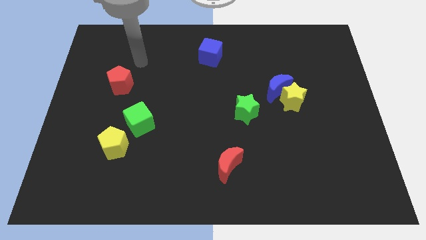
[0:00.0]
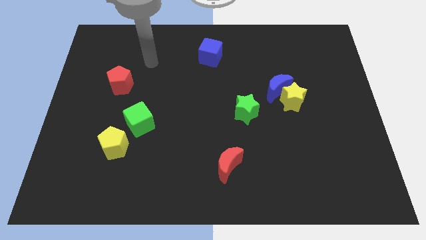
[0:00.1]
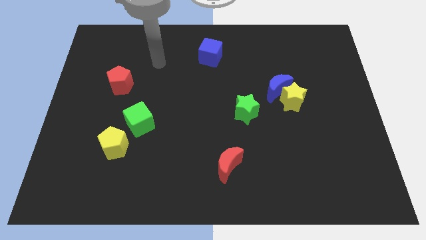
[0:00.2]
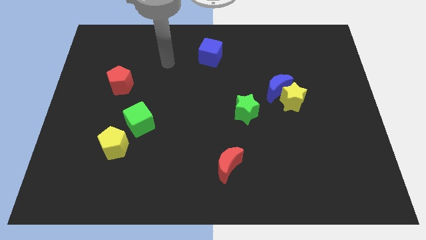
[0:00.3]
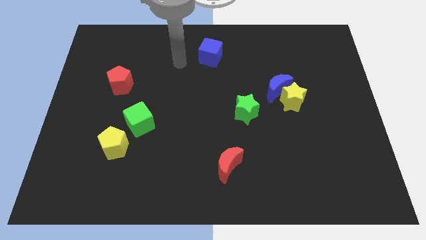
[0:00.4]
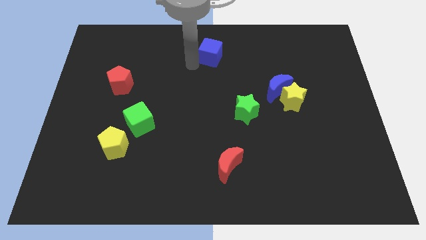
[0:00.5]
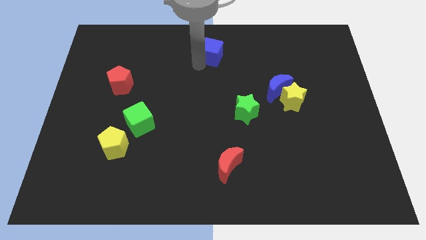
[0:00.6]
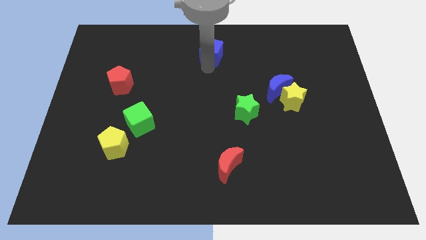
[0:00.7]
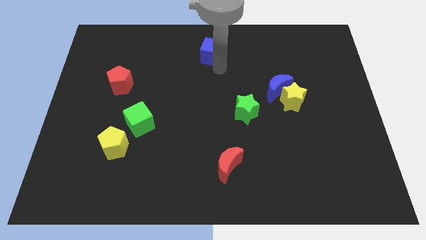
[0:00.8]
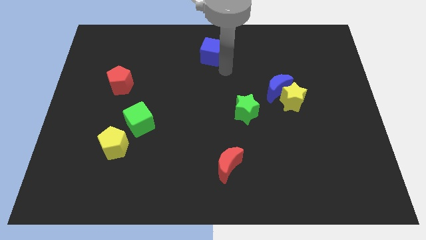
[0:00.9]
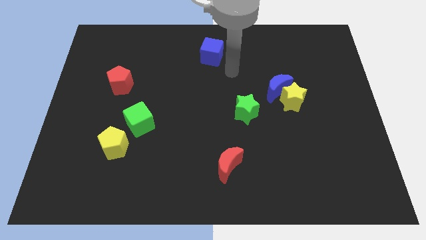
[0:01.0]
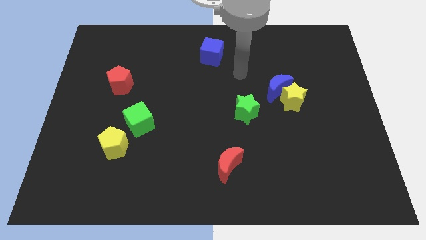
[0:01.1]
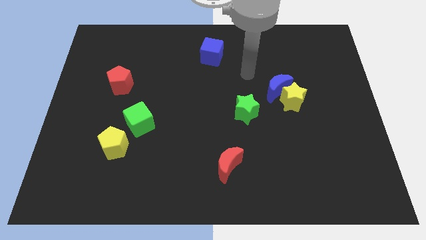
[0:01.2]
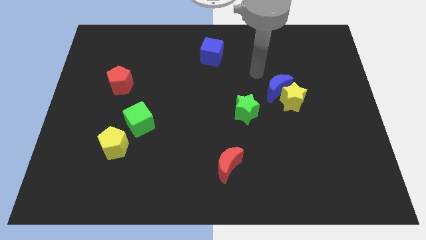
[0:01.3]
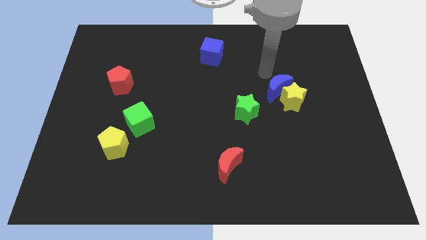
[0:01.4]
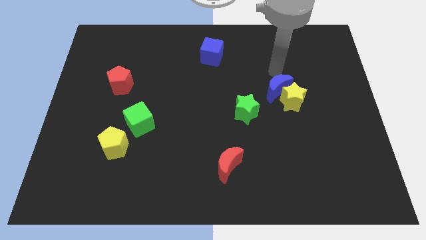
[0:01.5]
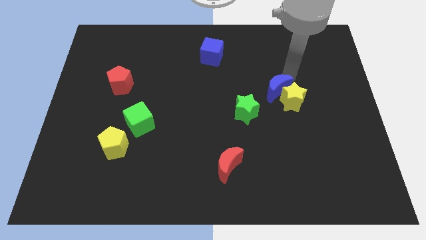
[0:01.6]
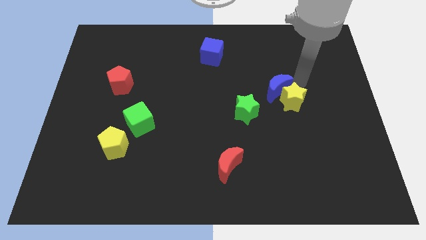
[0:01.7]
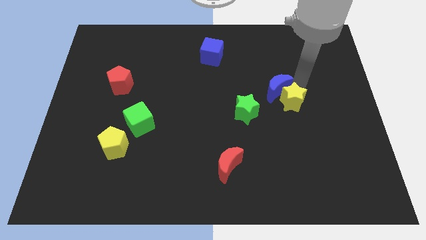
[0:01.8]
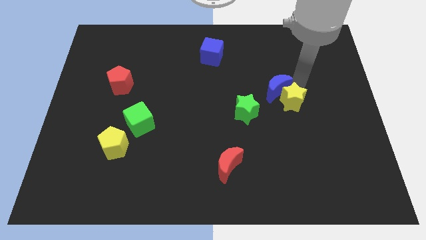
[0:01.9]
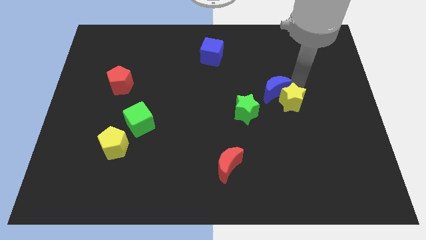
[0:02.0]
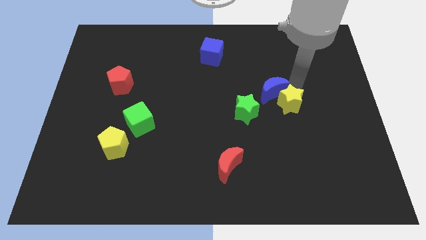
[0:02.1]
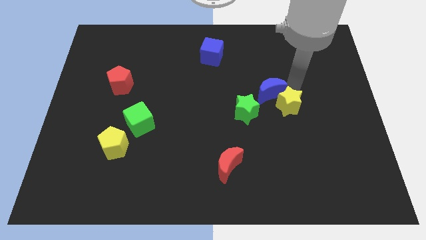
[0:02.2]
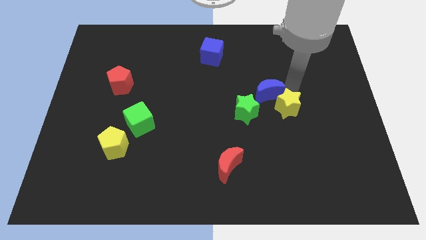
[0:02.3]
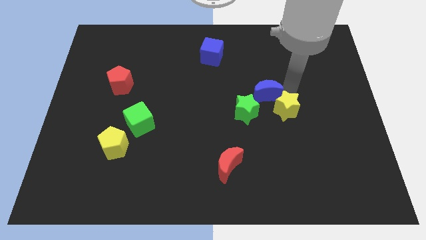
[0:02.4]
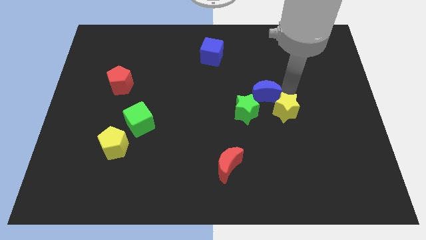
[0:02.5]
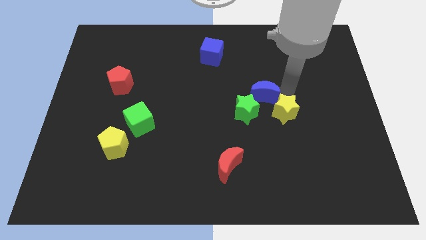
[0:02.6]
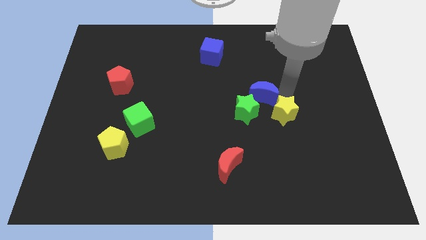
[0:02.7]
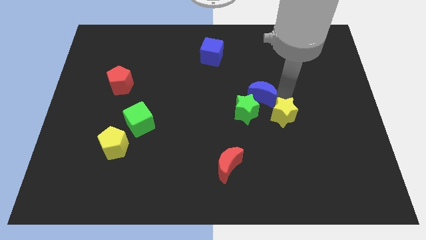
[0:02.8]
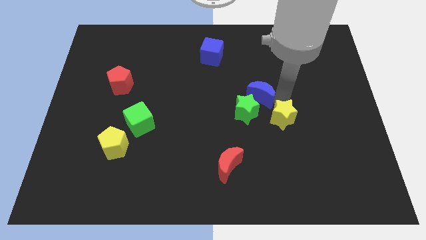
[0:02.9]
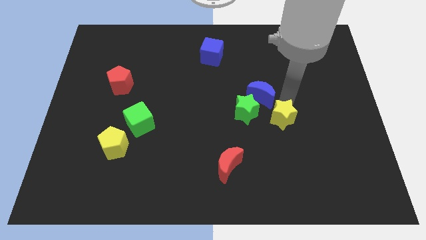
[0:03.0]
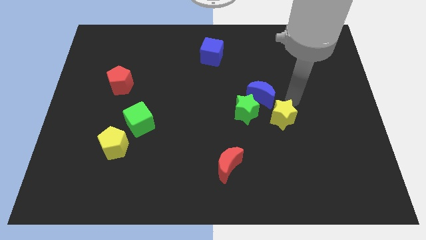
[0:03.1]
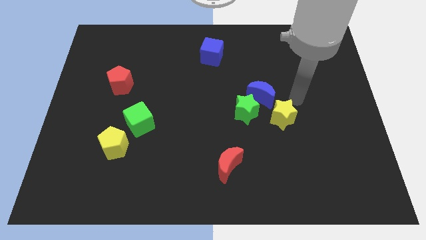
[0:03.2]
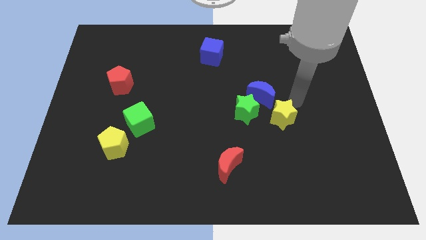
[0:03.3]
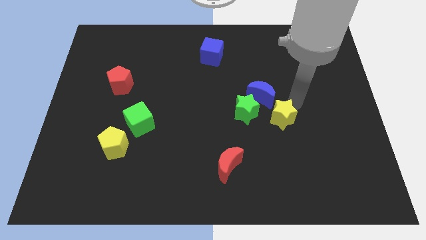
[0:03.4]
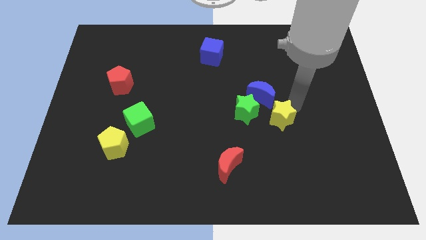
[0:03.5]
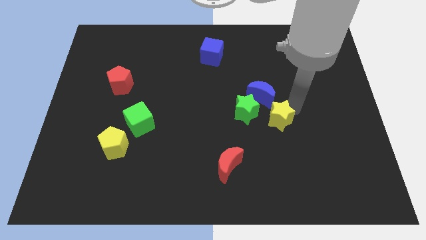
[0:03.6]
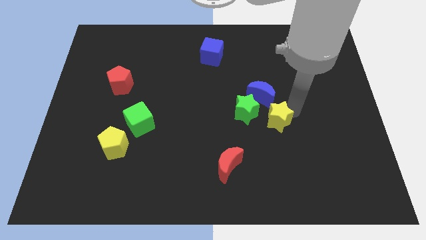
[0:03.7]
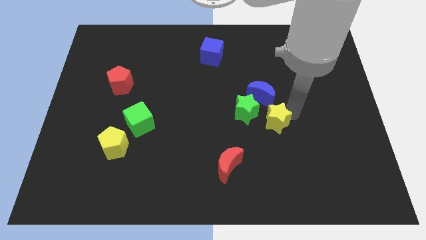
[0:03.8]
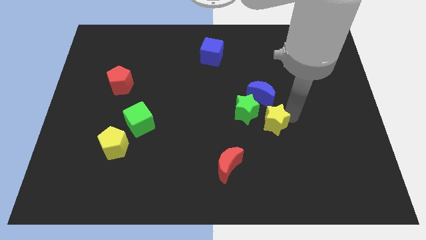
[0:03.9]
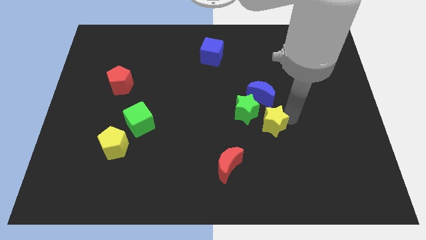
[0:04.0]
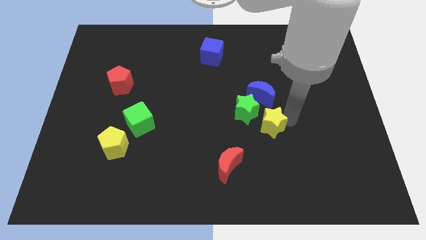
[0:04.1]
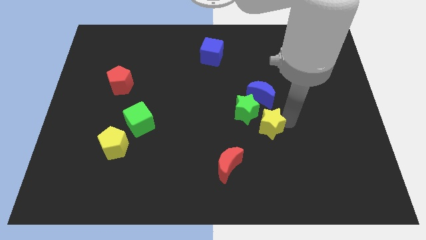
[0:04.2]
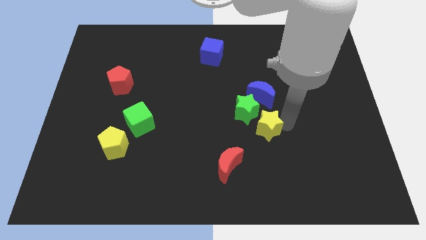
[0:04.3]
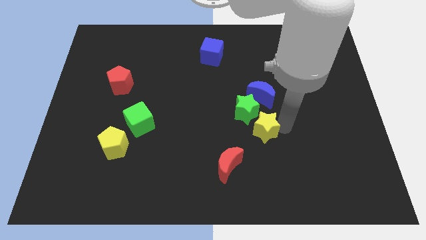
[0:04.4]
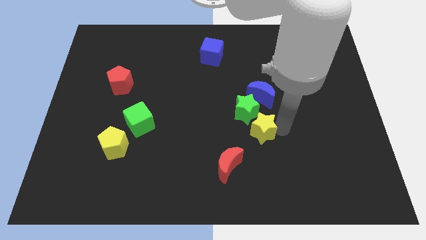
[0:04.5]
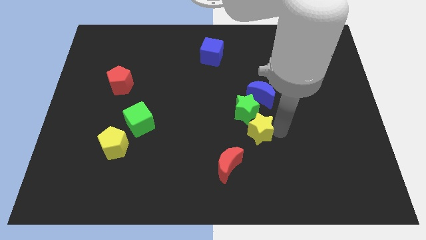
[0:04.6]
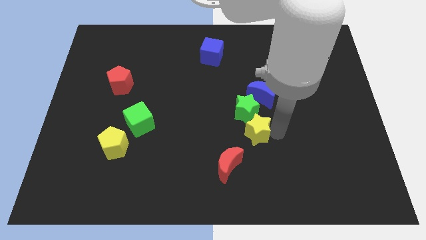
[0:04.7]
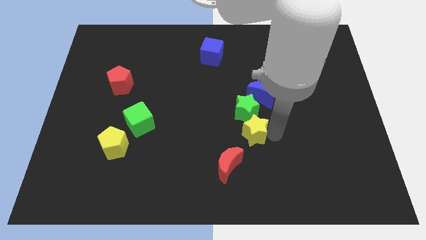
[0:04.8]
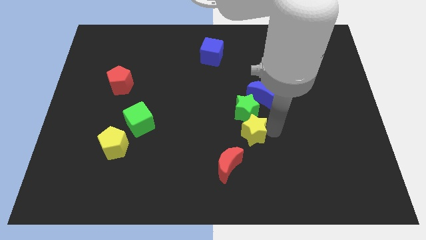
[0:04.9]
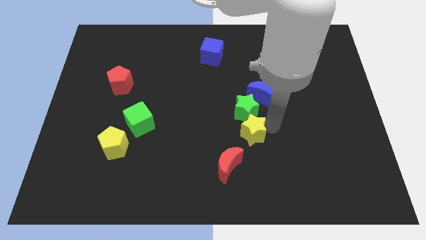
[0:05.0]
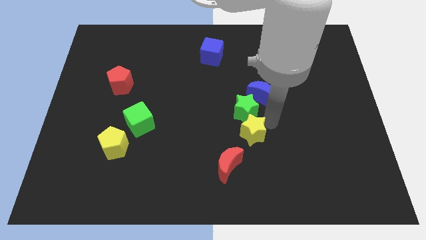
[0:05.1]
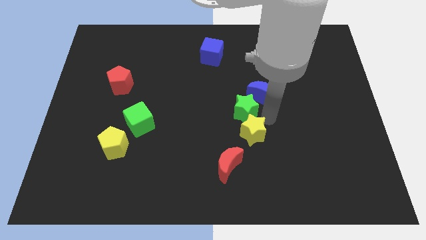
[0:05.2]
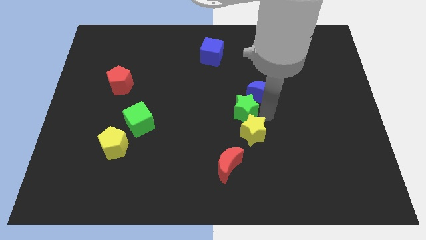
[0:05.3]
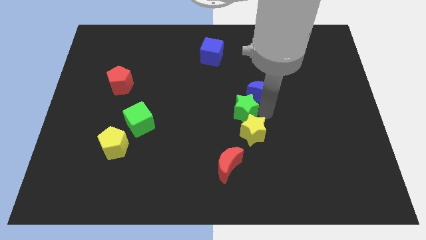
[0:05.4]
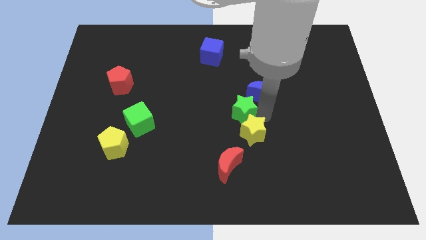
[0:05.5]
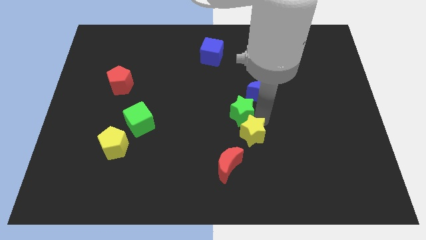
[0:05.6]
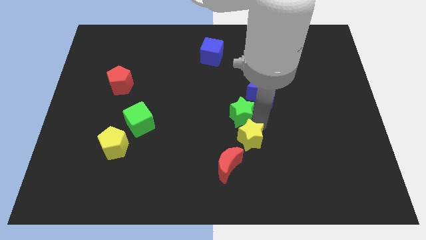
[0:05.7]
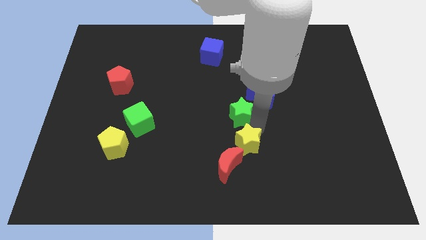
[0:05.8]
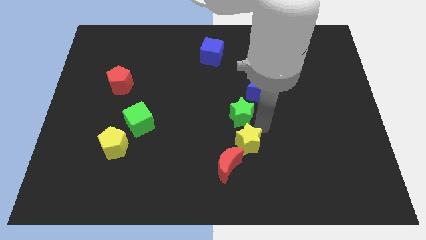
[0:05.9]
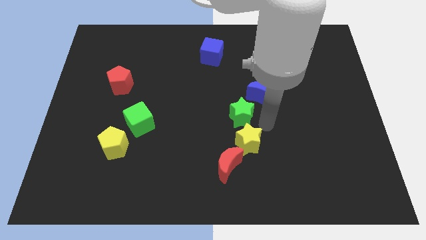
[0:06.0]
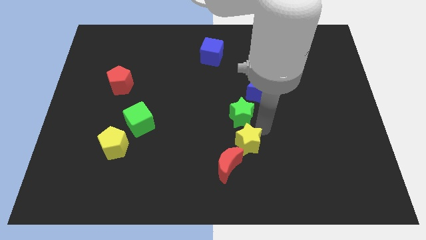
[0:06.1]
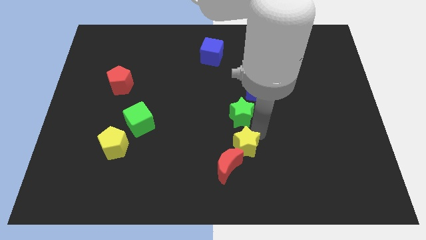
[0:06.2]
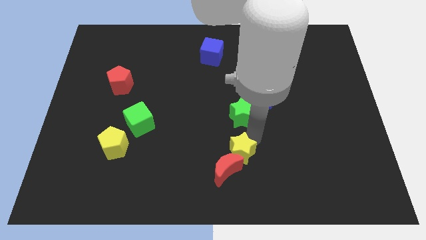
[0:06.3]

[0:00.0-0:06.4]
slide the yellow star to the red moon

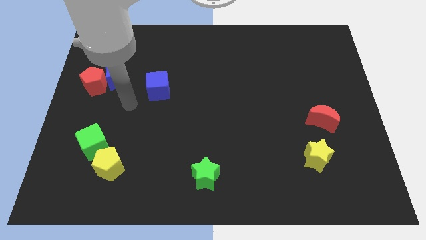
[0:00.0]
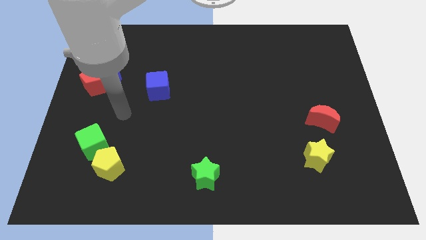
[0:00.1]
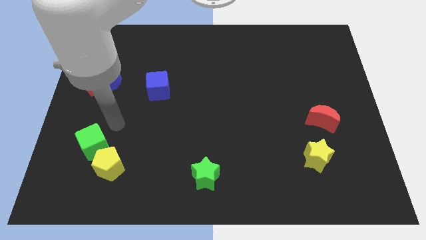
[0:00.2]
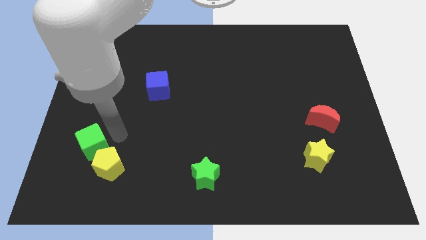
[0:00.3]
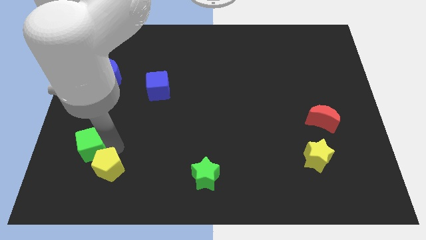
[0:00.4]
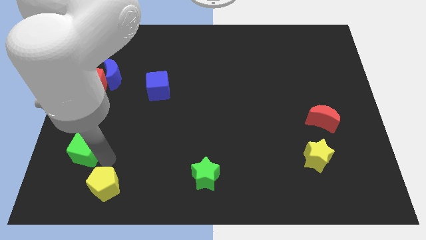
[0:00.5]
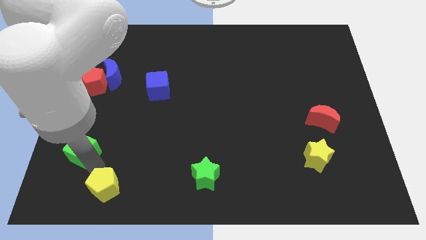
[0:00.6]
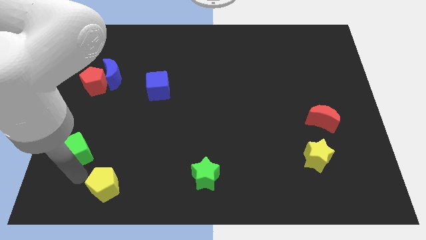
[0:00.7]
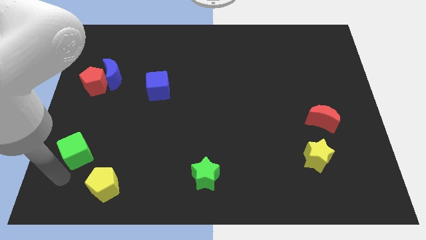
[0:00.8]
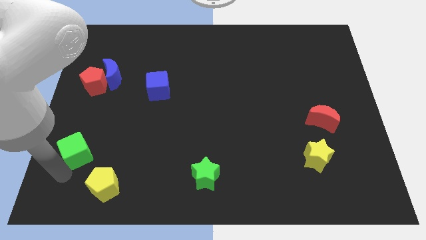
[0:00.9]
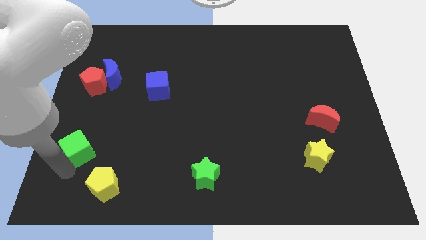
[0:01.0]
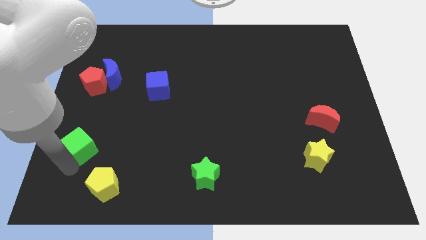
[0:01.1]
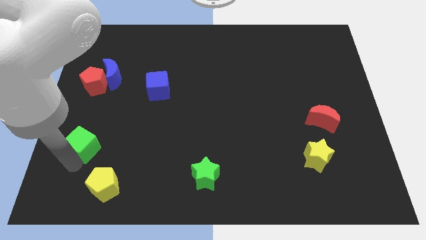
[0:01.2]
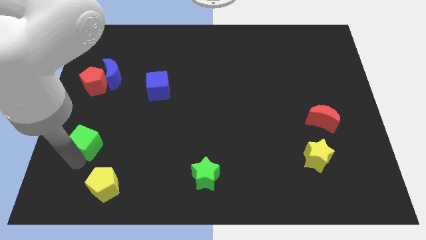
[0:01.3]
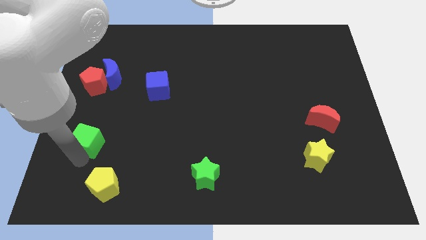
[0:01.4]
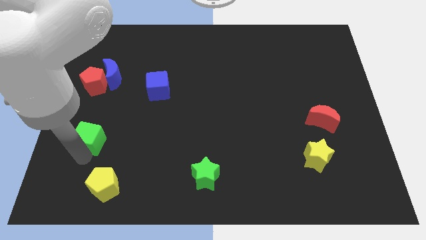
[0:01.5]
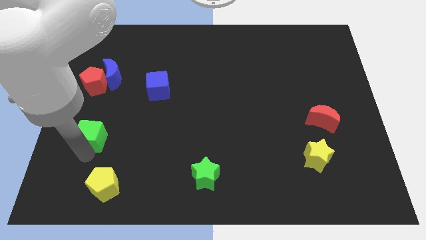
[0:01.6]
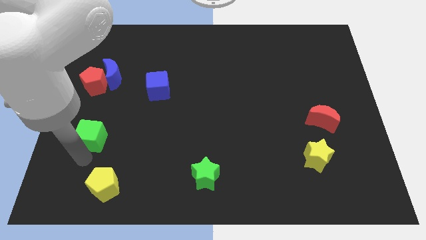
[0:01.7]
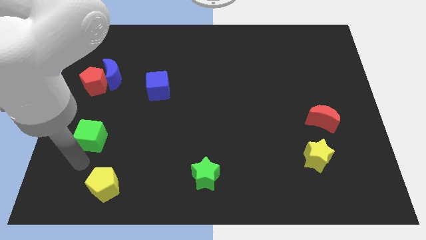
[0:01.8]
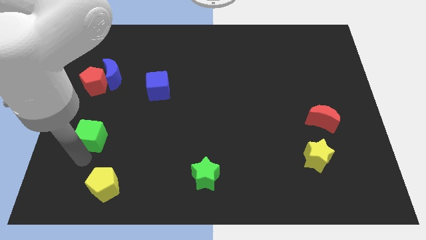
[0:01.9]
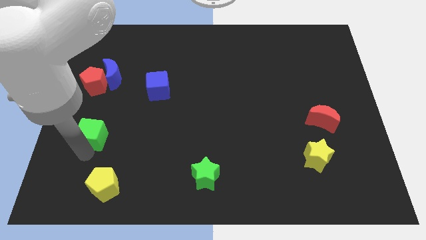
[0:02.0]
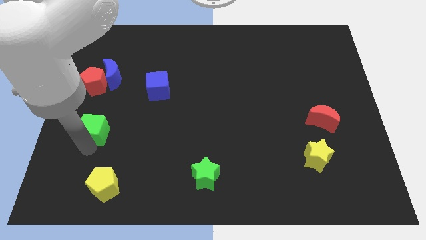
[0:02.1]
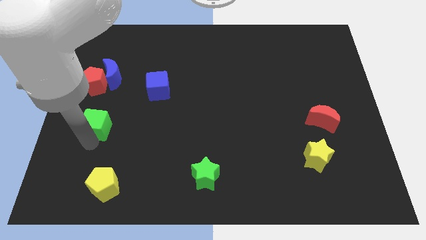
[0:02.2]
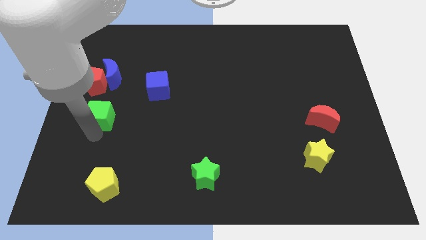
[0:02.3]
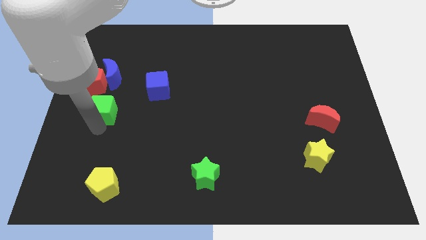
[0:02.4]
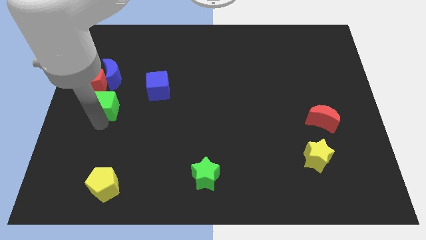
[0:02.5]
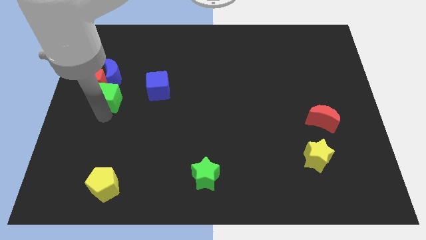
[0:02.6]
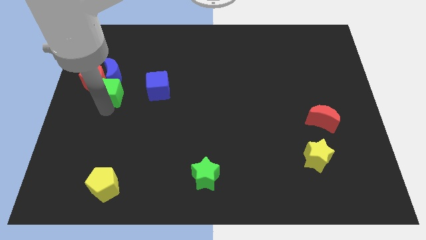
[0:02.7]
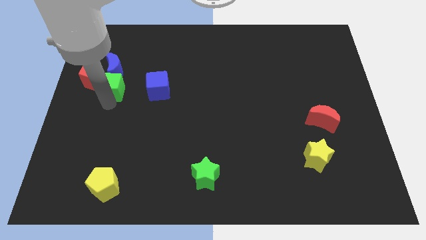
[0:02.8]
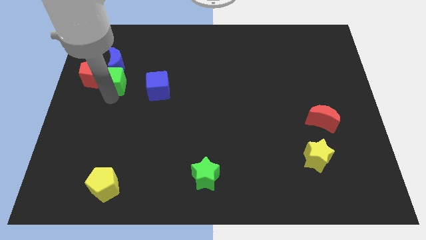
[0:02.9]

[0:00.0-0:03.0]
put the green cube next to the blue moon
